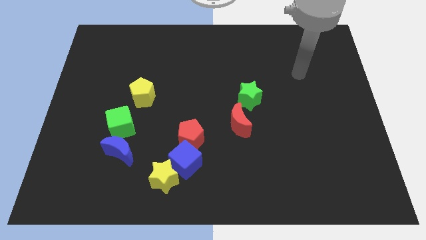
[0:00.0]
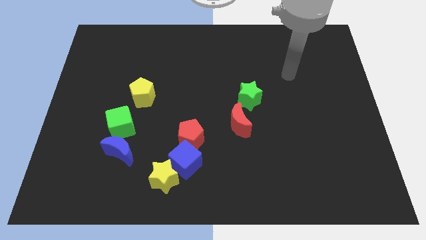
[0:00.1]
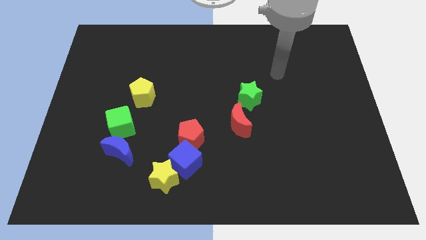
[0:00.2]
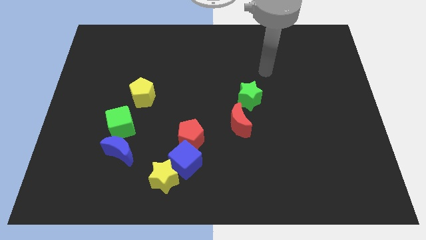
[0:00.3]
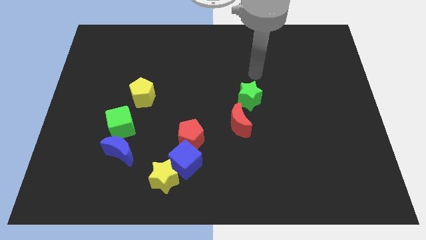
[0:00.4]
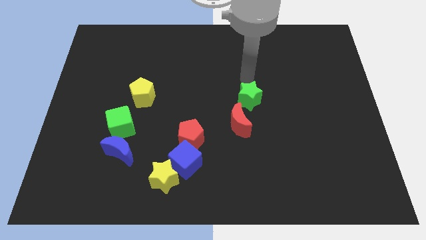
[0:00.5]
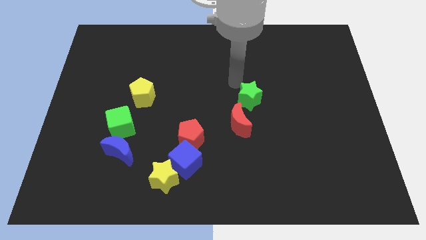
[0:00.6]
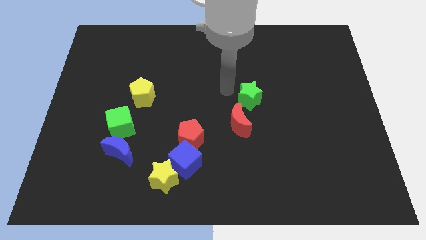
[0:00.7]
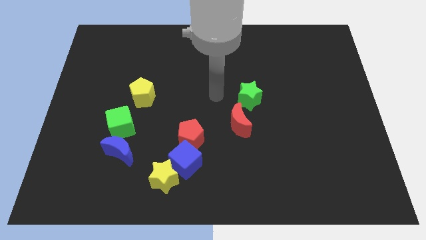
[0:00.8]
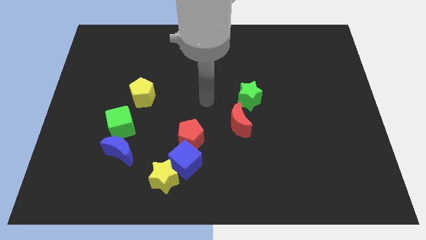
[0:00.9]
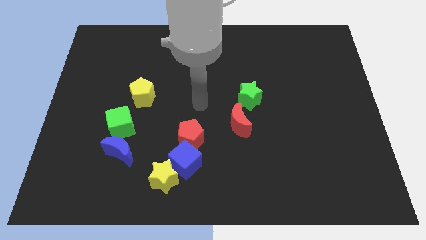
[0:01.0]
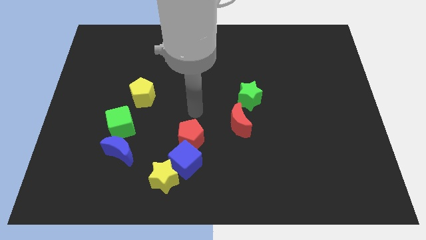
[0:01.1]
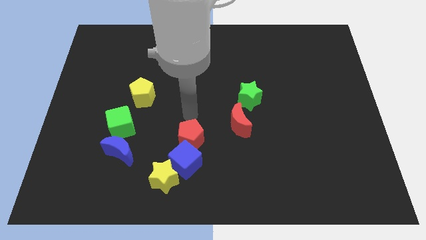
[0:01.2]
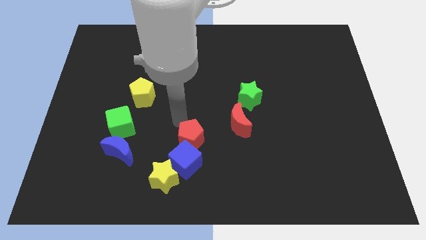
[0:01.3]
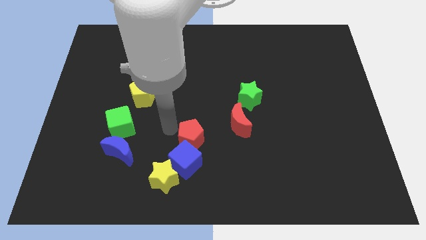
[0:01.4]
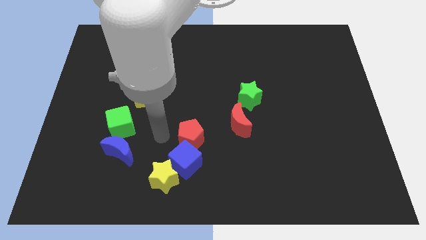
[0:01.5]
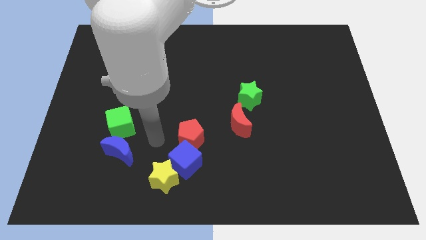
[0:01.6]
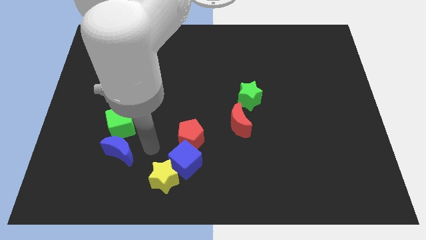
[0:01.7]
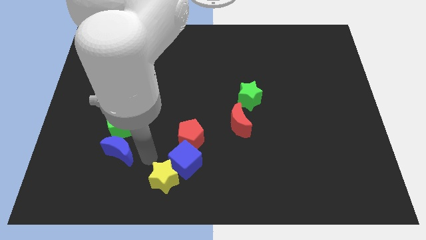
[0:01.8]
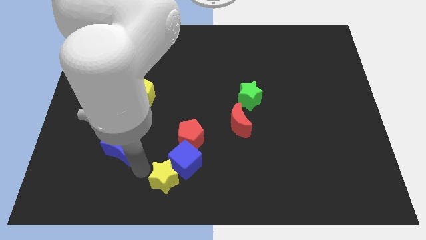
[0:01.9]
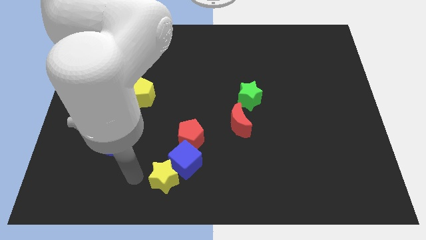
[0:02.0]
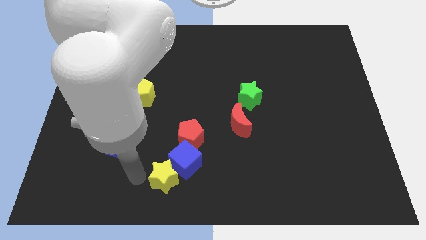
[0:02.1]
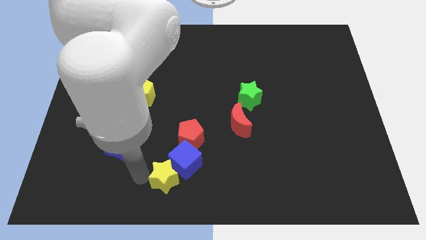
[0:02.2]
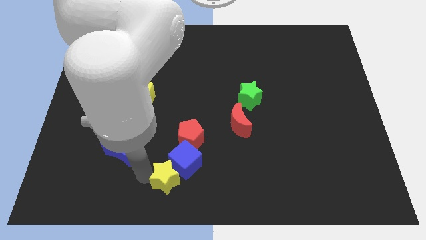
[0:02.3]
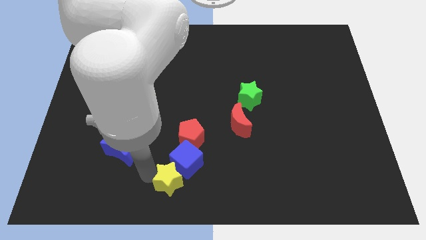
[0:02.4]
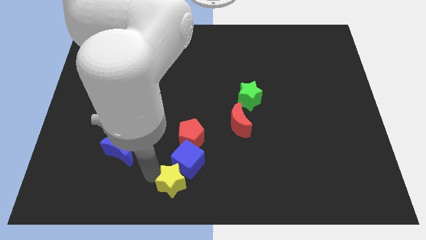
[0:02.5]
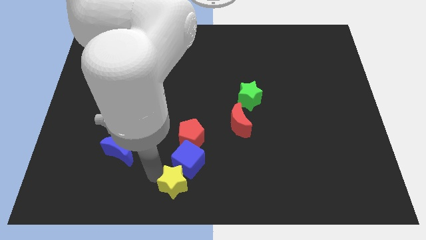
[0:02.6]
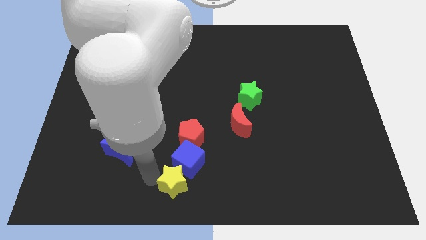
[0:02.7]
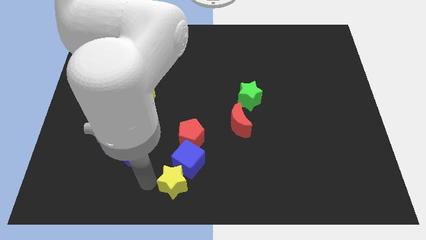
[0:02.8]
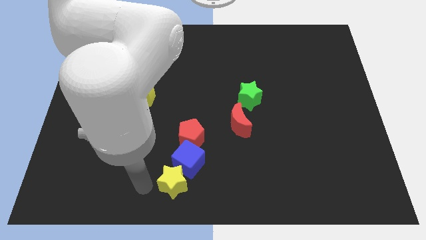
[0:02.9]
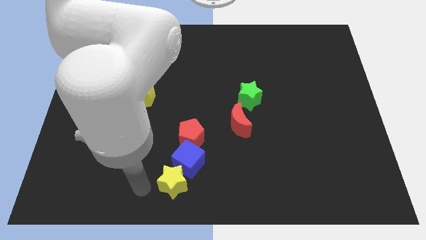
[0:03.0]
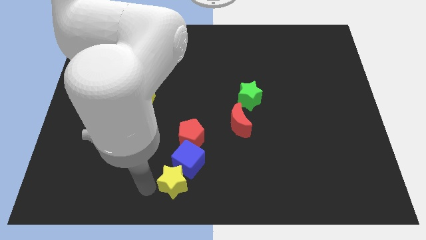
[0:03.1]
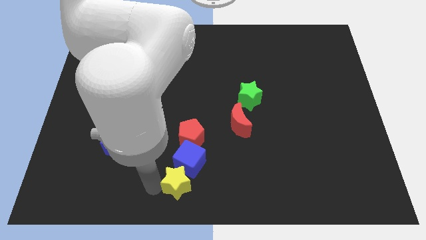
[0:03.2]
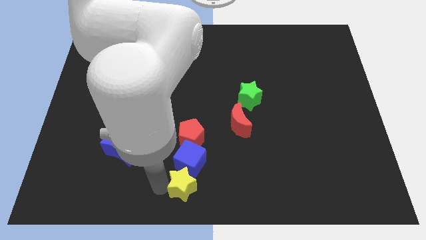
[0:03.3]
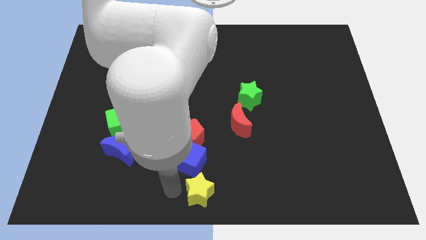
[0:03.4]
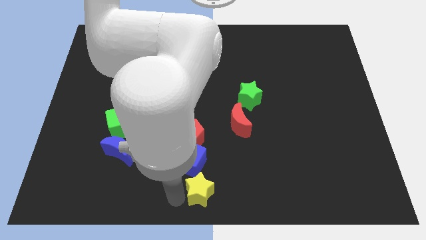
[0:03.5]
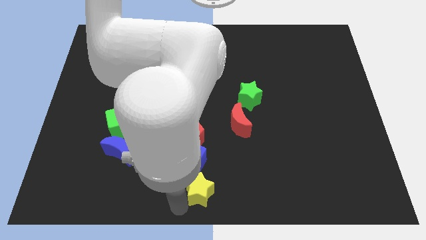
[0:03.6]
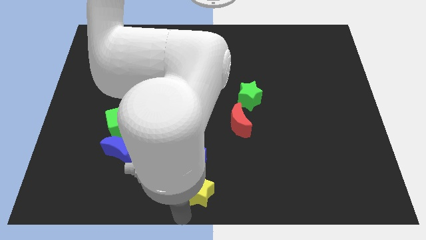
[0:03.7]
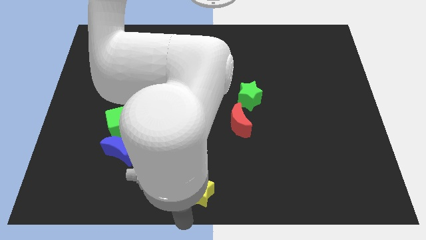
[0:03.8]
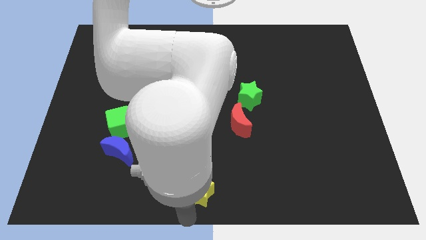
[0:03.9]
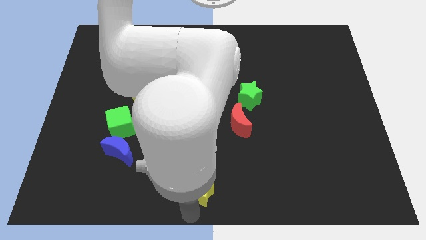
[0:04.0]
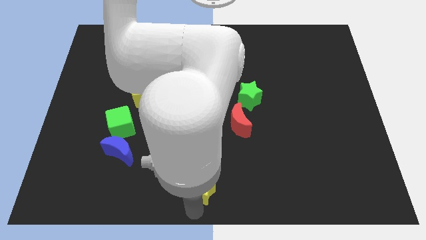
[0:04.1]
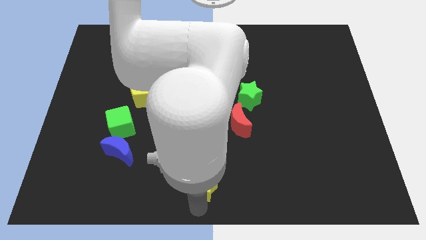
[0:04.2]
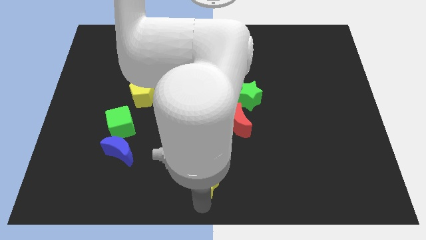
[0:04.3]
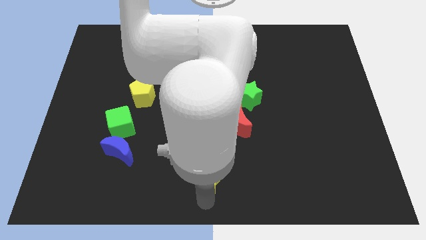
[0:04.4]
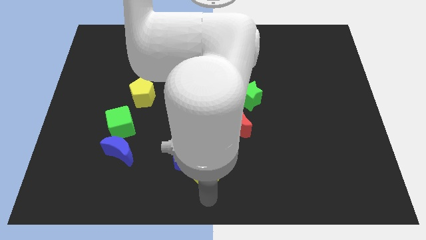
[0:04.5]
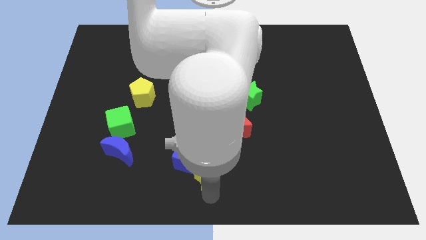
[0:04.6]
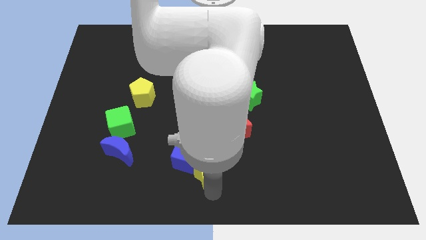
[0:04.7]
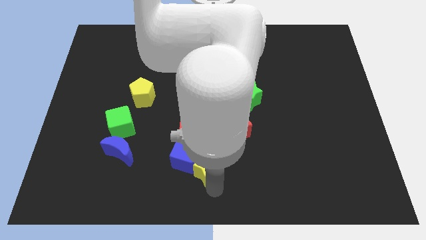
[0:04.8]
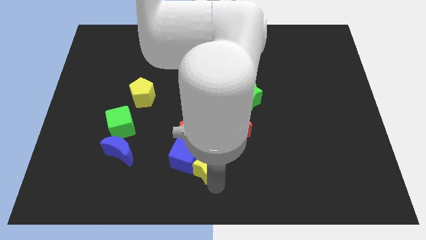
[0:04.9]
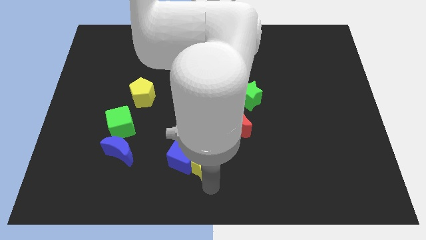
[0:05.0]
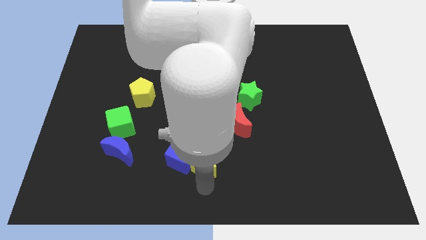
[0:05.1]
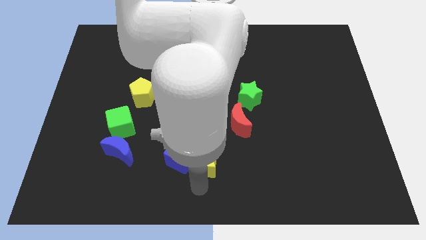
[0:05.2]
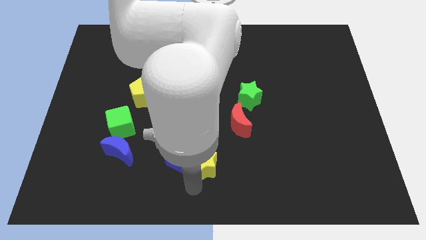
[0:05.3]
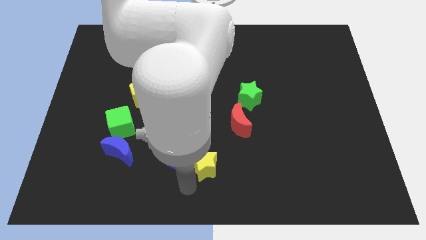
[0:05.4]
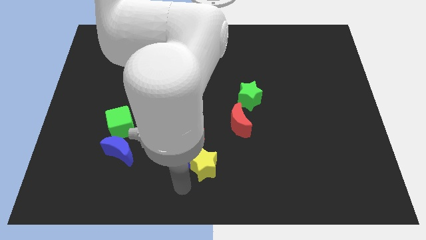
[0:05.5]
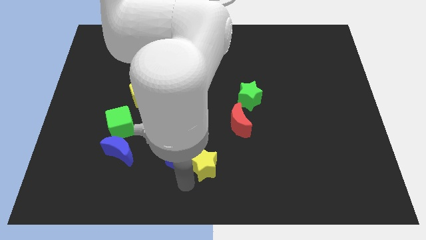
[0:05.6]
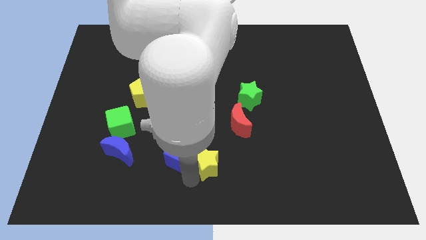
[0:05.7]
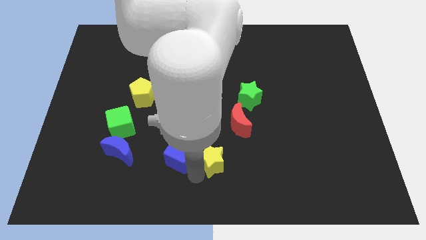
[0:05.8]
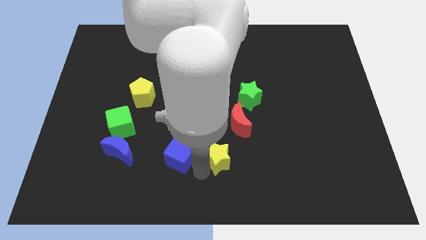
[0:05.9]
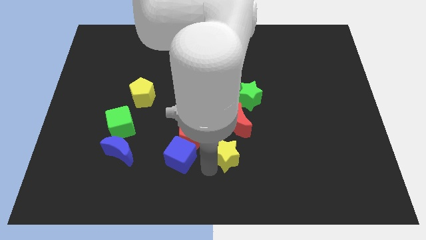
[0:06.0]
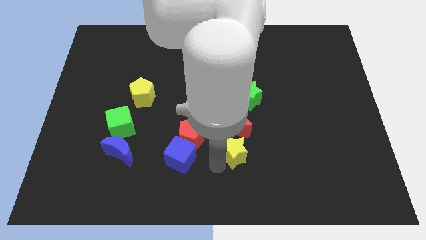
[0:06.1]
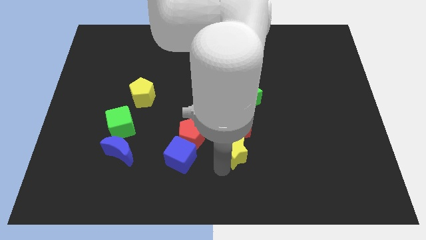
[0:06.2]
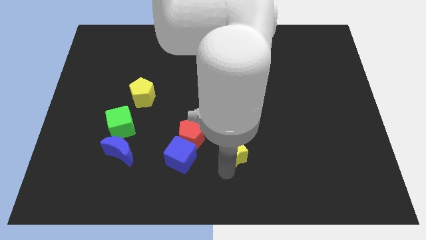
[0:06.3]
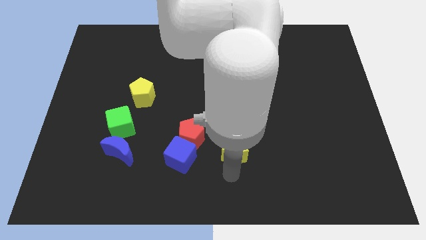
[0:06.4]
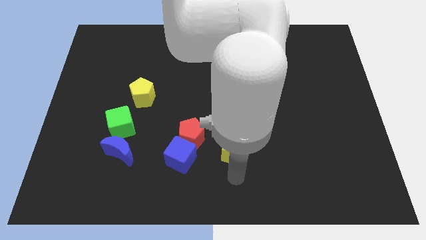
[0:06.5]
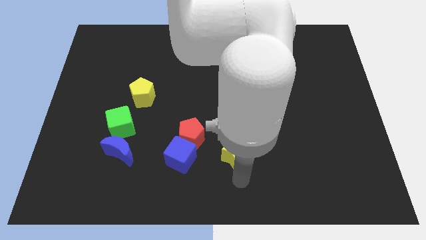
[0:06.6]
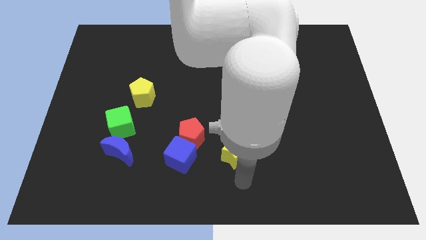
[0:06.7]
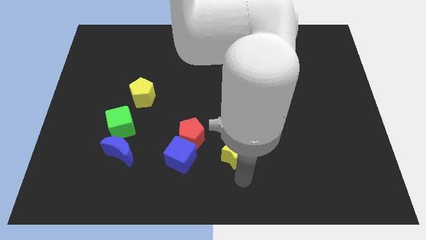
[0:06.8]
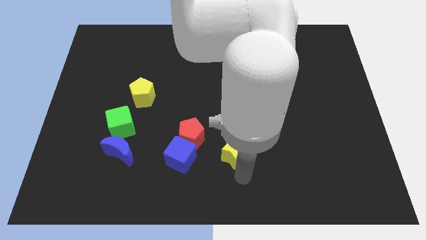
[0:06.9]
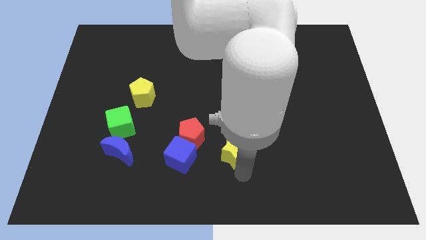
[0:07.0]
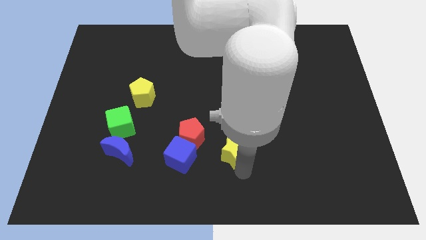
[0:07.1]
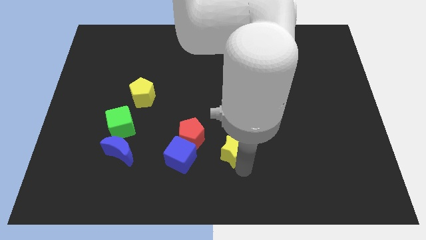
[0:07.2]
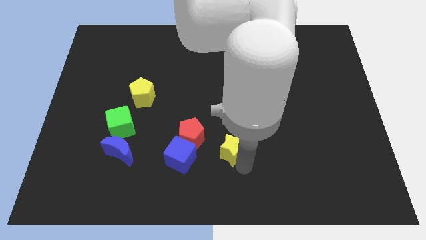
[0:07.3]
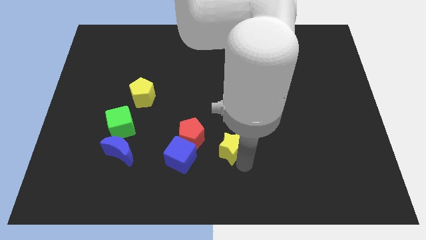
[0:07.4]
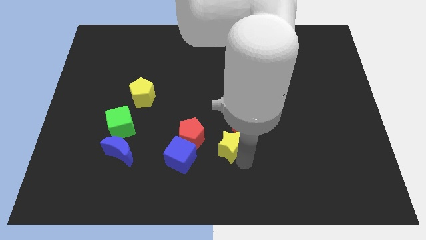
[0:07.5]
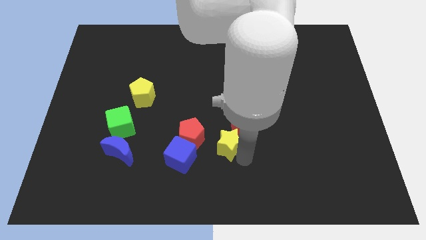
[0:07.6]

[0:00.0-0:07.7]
move the yellow star next to the red moon
